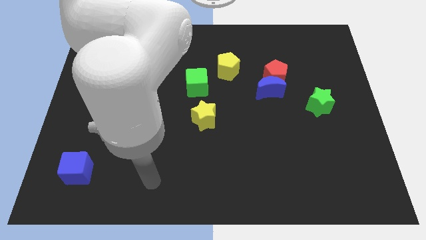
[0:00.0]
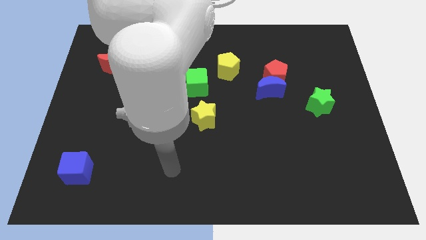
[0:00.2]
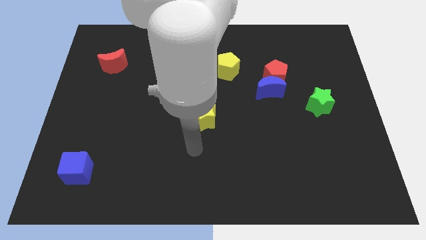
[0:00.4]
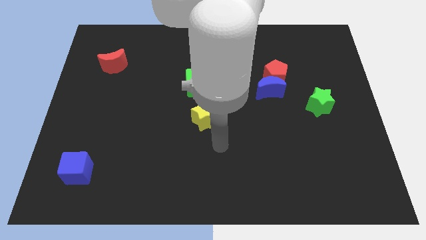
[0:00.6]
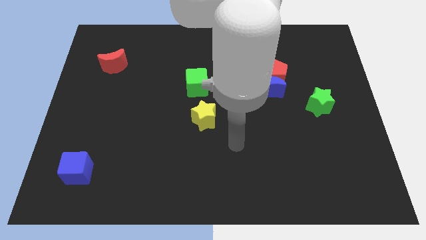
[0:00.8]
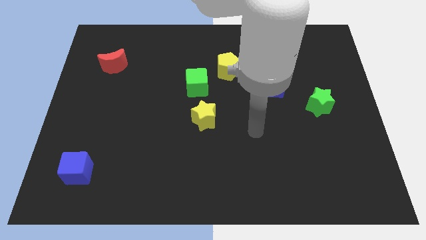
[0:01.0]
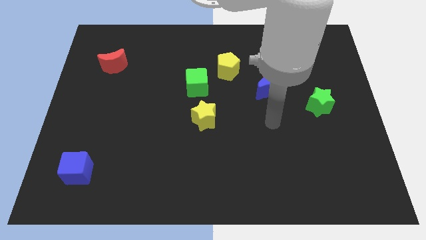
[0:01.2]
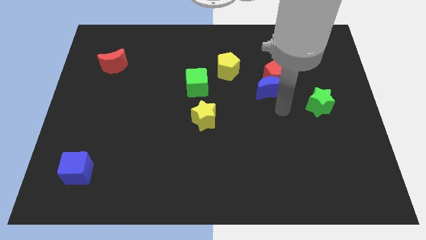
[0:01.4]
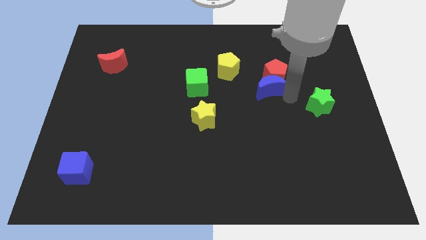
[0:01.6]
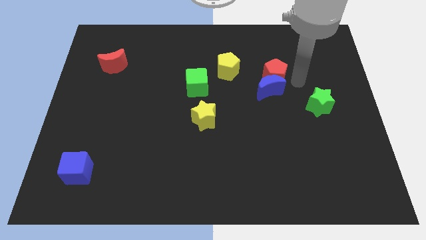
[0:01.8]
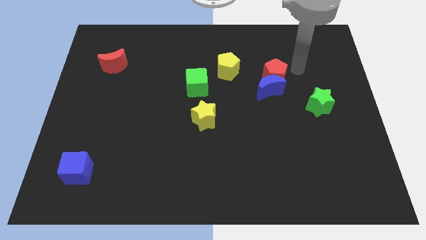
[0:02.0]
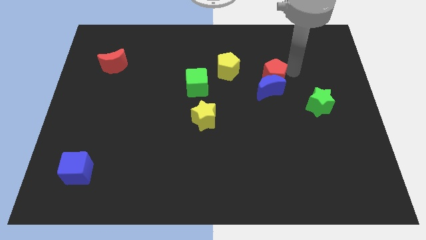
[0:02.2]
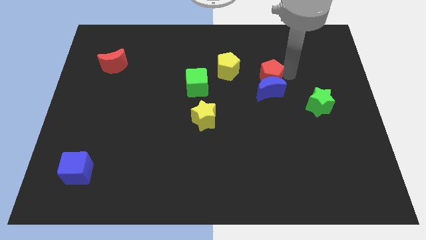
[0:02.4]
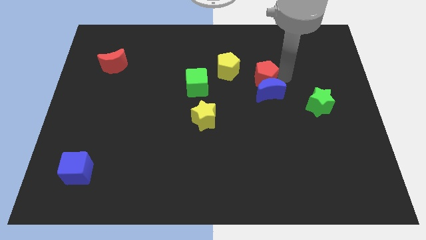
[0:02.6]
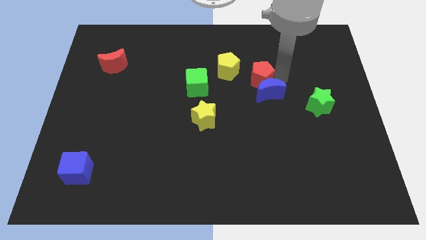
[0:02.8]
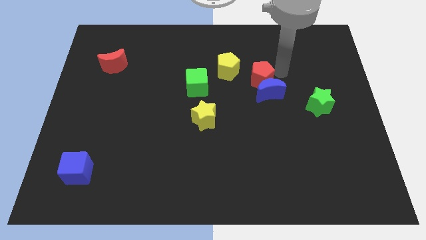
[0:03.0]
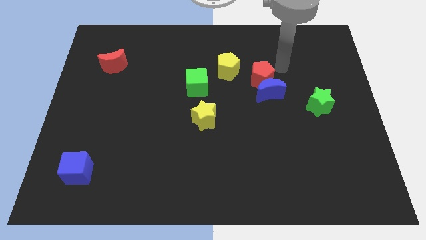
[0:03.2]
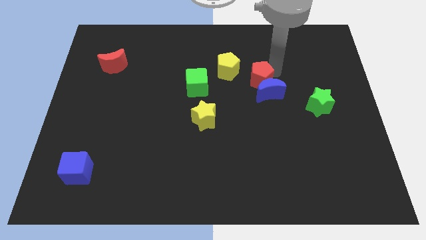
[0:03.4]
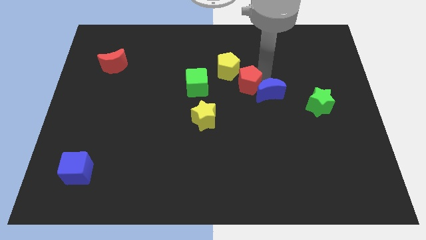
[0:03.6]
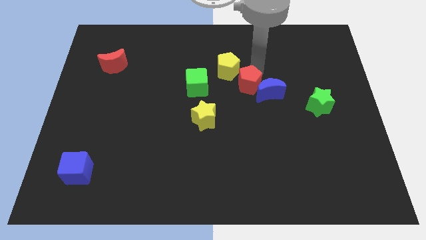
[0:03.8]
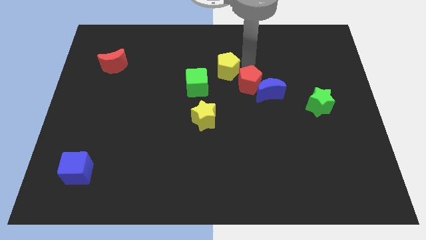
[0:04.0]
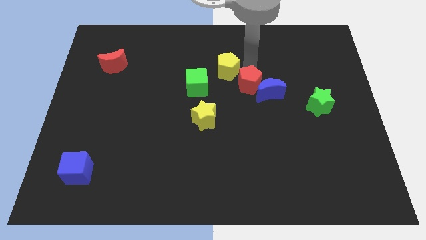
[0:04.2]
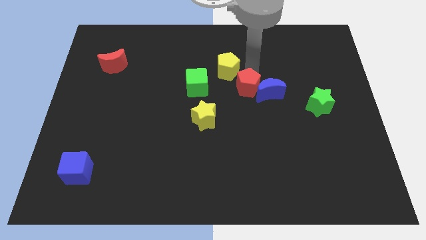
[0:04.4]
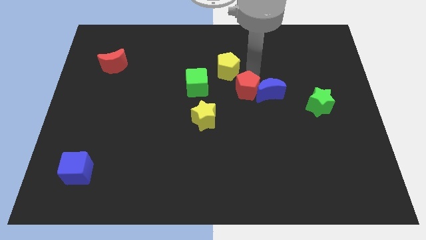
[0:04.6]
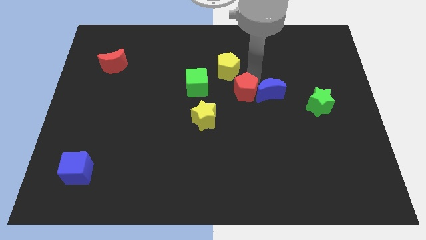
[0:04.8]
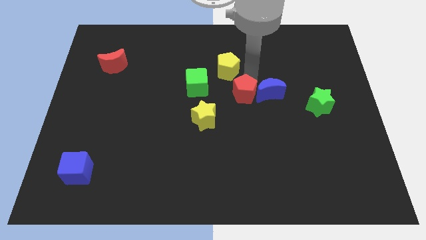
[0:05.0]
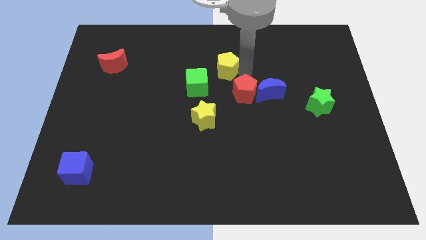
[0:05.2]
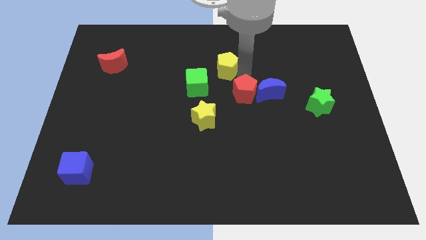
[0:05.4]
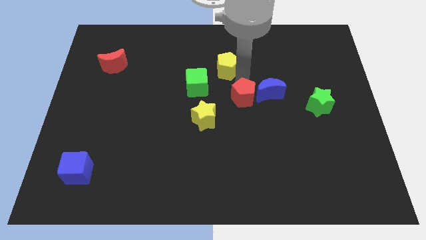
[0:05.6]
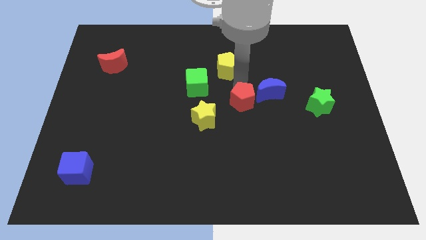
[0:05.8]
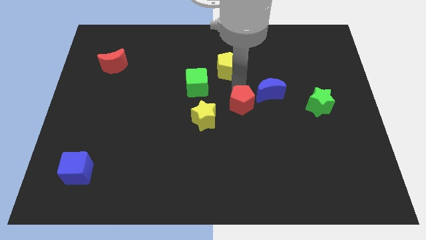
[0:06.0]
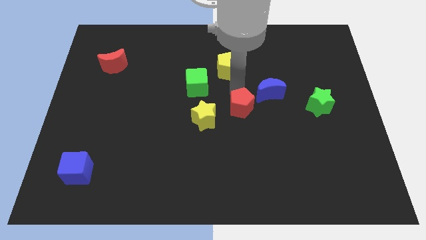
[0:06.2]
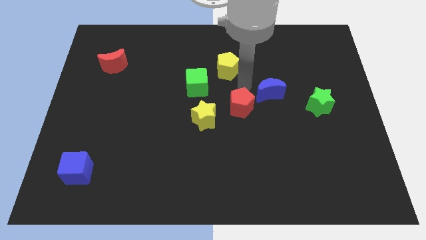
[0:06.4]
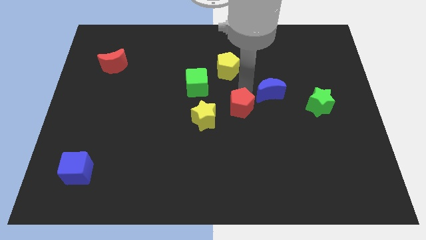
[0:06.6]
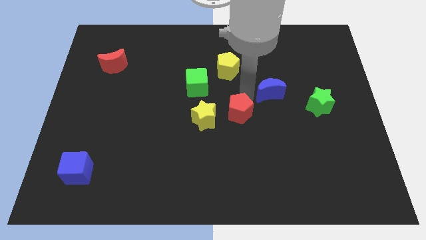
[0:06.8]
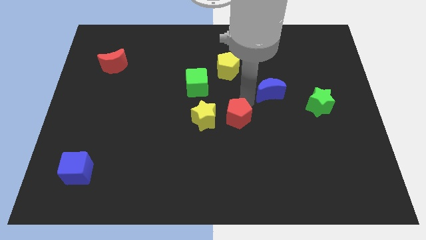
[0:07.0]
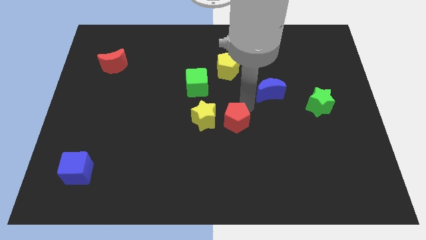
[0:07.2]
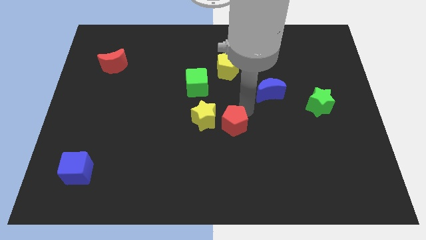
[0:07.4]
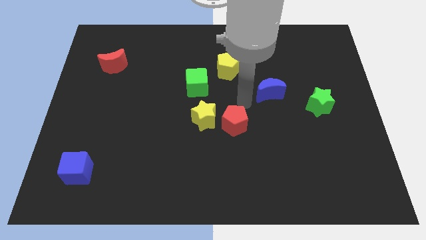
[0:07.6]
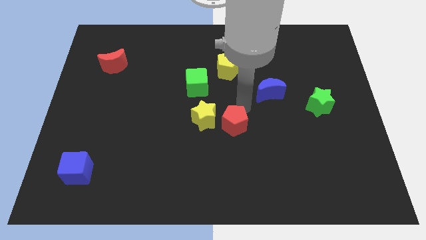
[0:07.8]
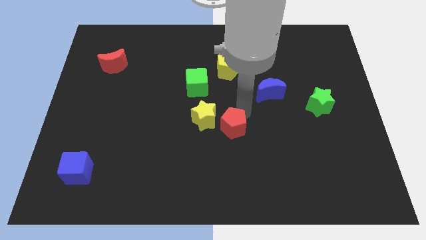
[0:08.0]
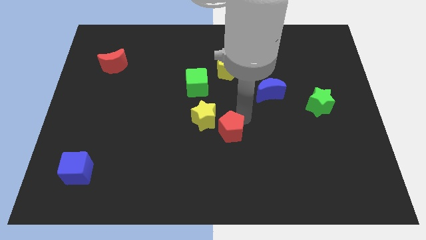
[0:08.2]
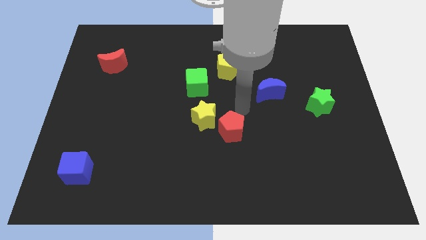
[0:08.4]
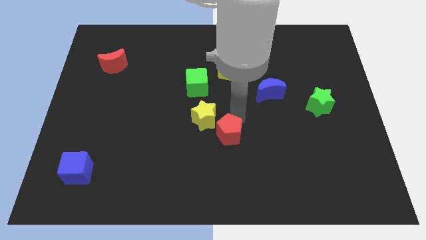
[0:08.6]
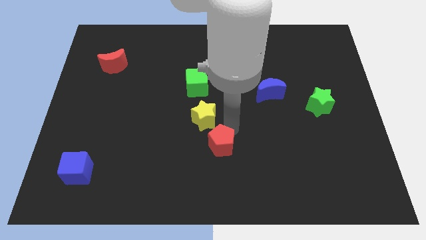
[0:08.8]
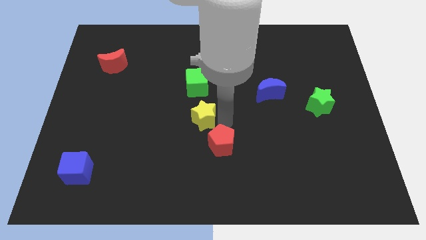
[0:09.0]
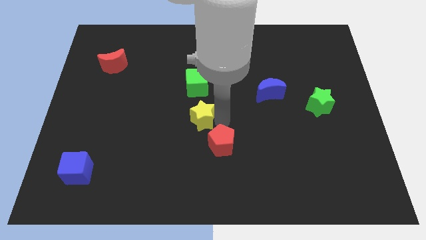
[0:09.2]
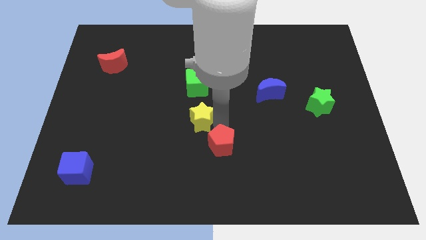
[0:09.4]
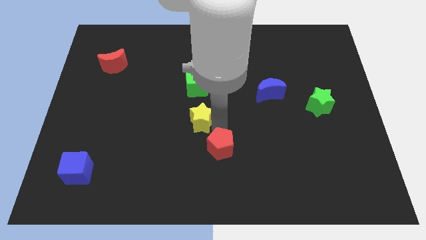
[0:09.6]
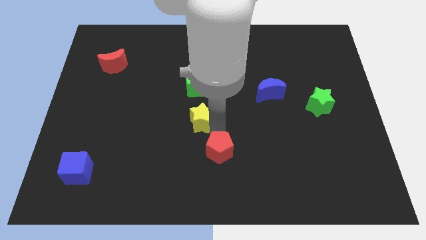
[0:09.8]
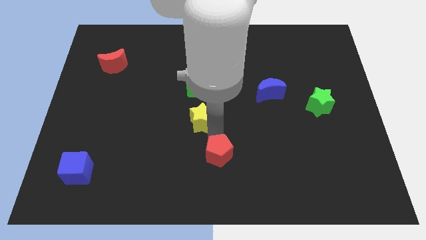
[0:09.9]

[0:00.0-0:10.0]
put the red pentagon to the bottom side

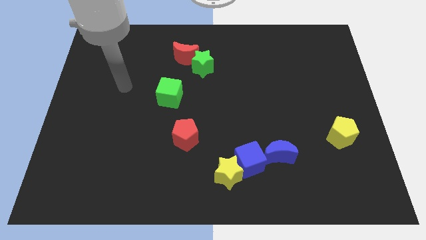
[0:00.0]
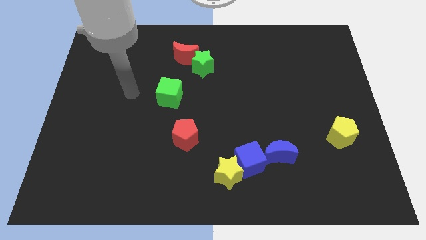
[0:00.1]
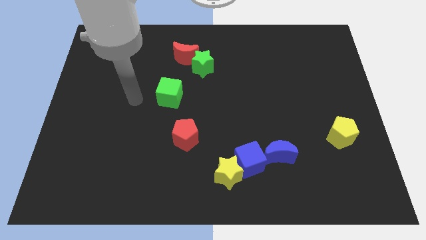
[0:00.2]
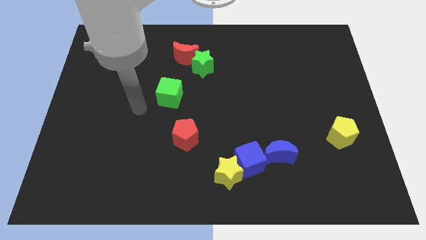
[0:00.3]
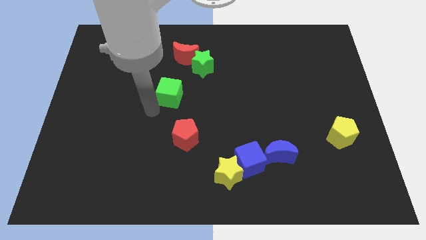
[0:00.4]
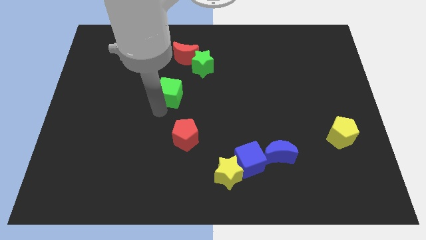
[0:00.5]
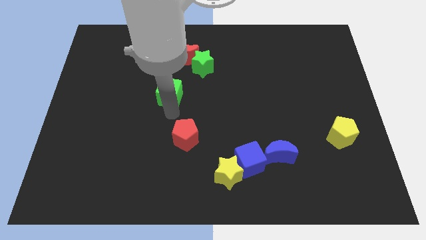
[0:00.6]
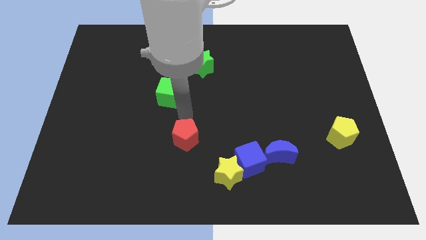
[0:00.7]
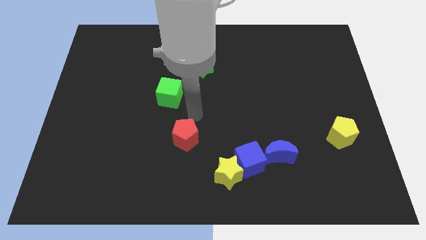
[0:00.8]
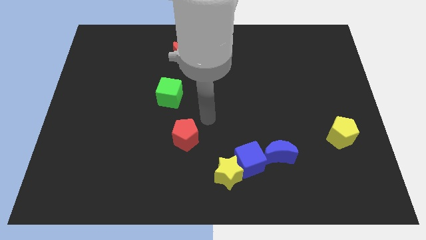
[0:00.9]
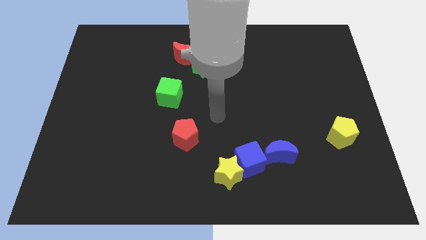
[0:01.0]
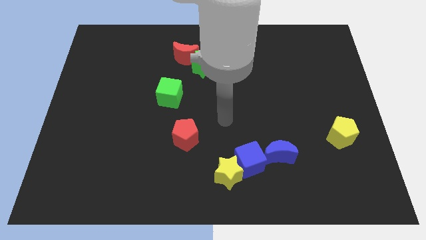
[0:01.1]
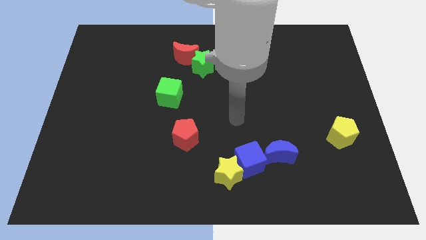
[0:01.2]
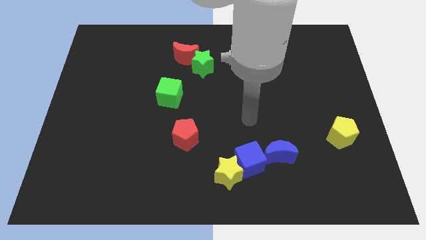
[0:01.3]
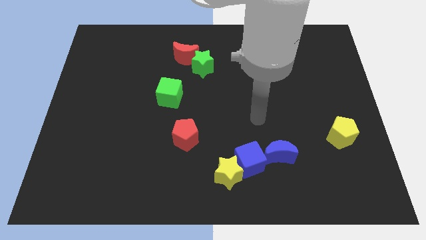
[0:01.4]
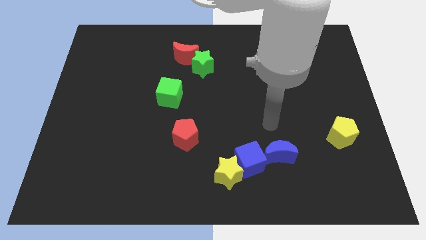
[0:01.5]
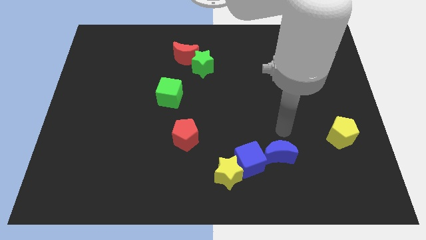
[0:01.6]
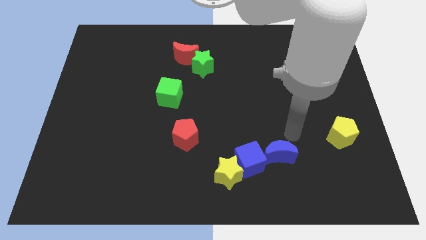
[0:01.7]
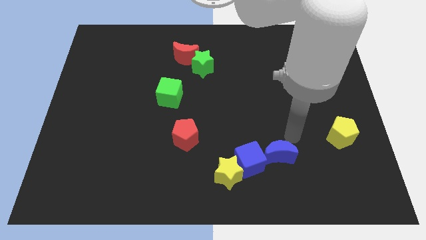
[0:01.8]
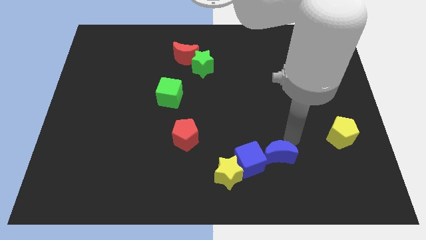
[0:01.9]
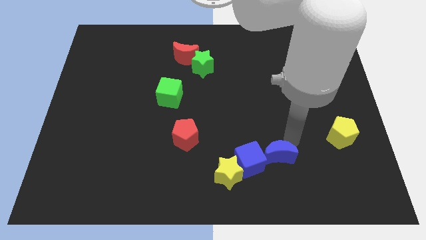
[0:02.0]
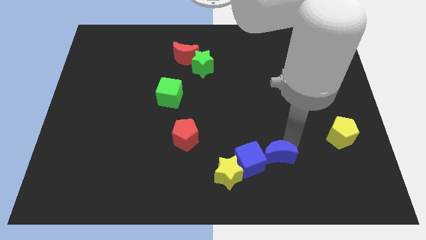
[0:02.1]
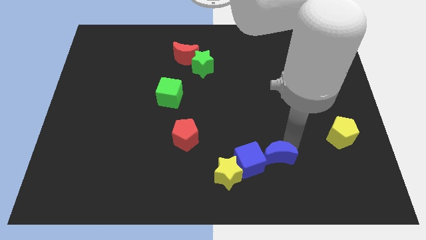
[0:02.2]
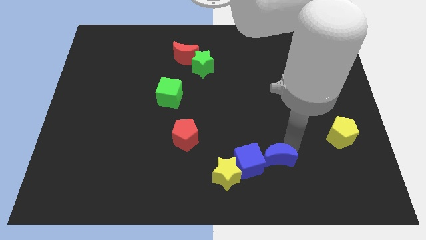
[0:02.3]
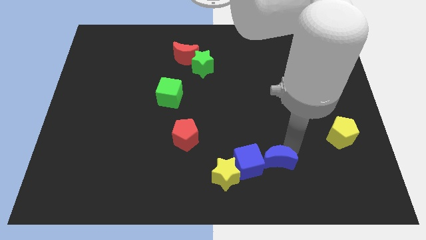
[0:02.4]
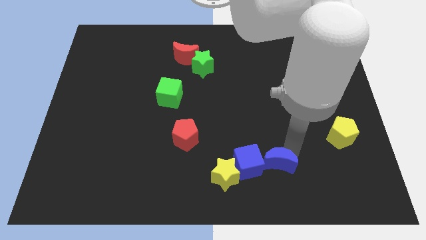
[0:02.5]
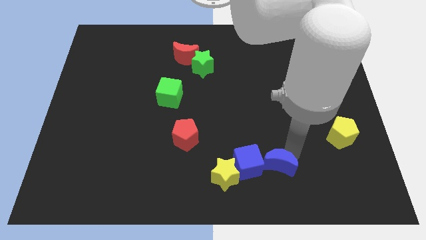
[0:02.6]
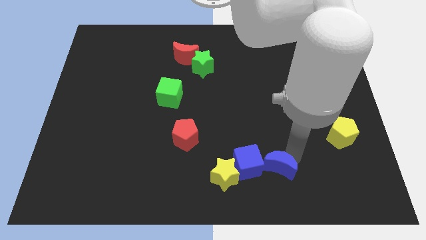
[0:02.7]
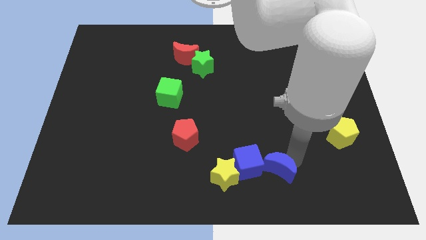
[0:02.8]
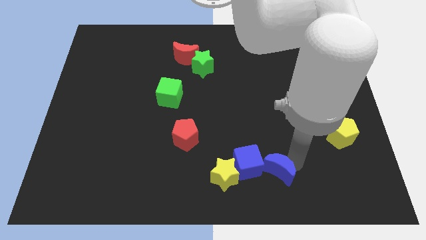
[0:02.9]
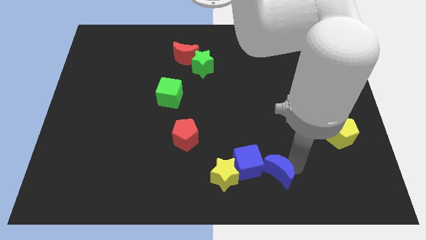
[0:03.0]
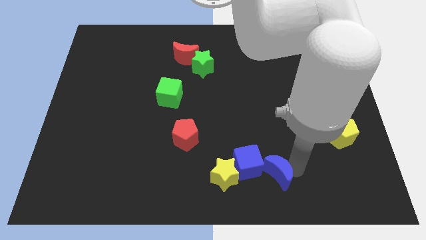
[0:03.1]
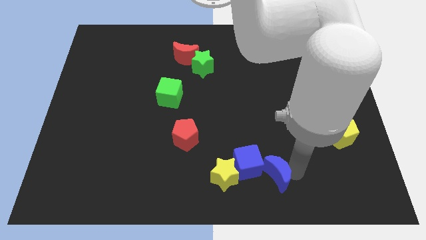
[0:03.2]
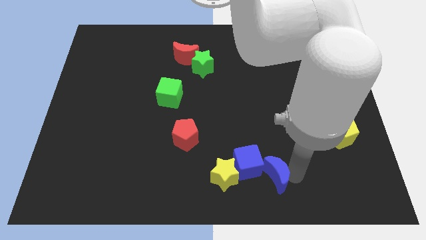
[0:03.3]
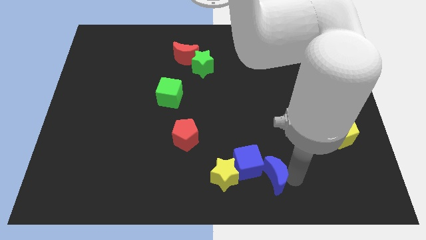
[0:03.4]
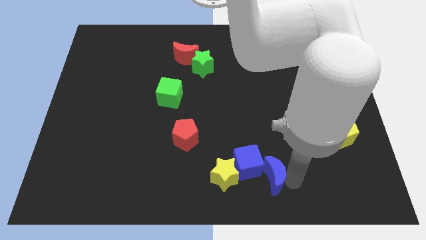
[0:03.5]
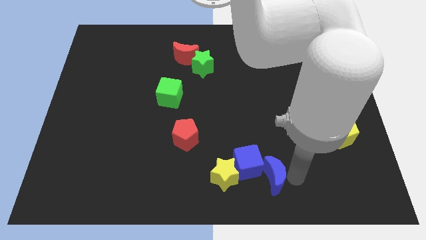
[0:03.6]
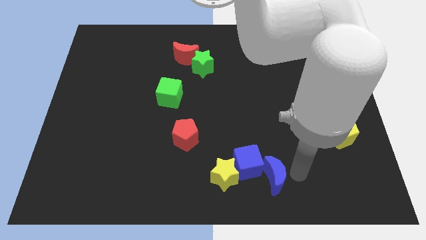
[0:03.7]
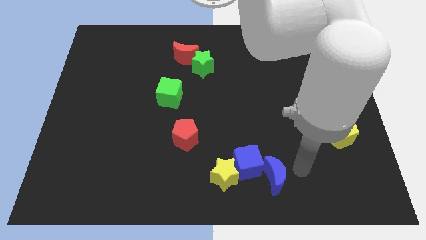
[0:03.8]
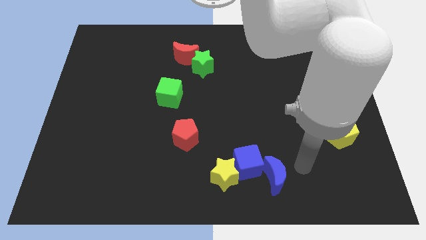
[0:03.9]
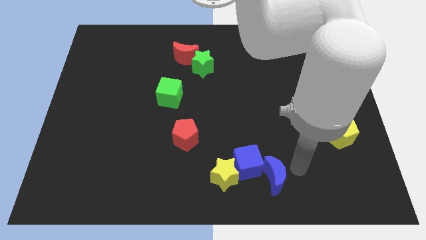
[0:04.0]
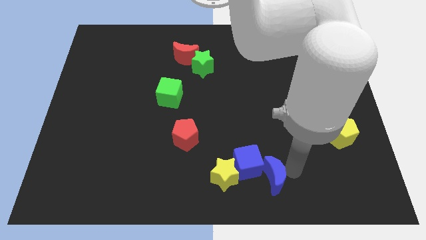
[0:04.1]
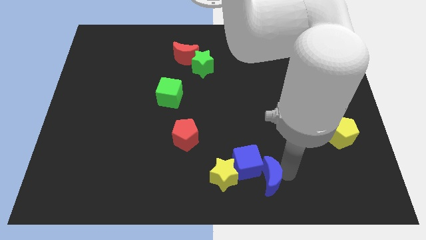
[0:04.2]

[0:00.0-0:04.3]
push the blue moon to the bottom
